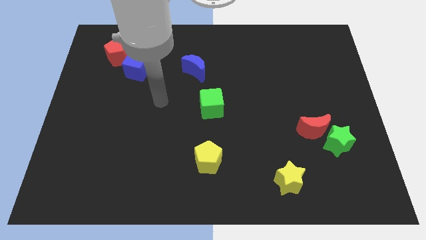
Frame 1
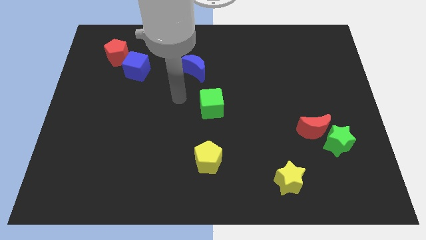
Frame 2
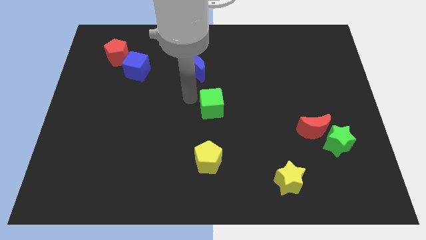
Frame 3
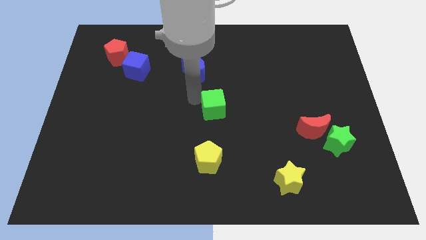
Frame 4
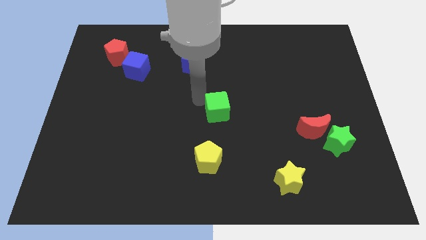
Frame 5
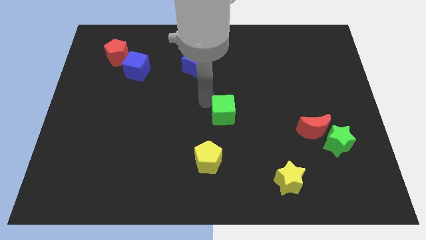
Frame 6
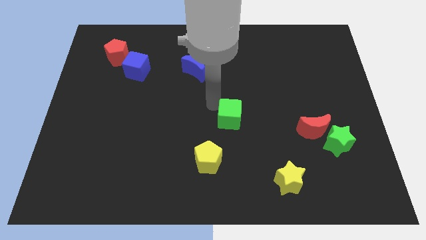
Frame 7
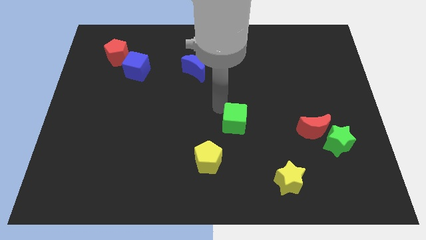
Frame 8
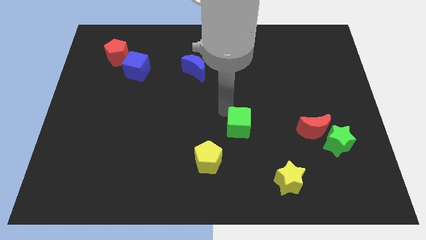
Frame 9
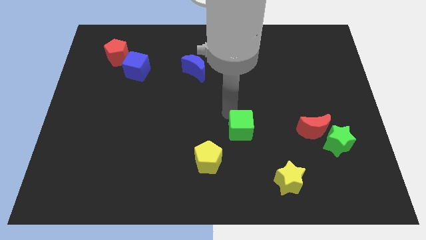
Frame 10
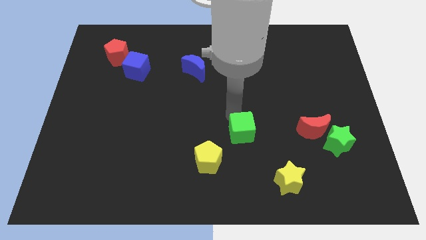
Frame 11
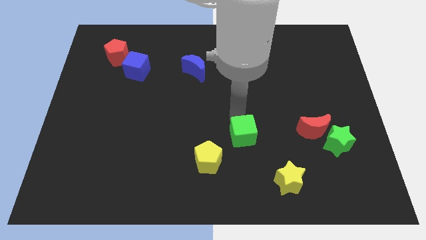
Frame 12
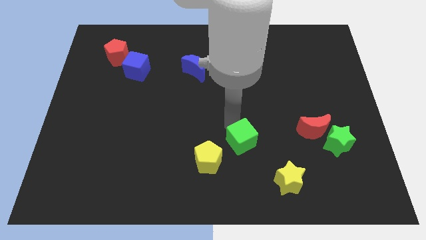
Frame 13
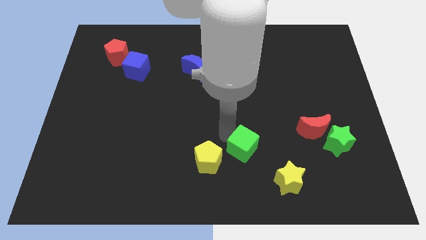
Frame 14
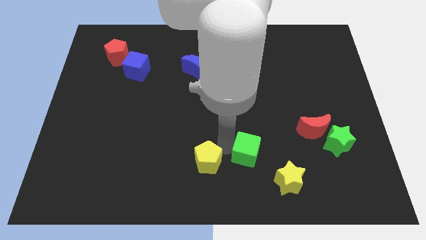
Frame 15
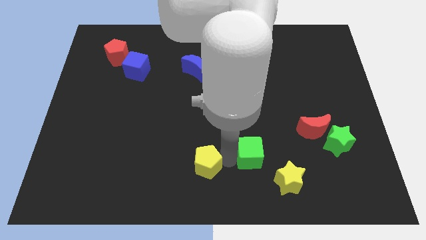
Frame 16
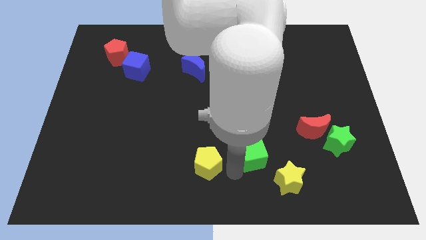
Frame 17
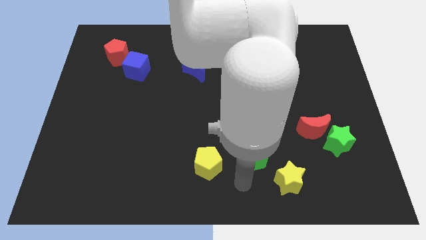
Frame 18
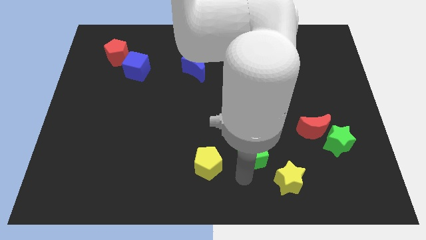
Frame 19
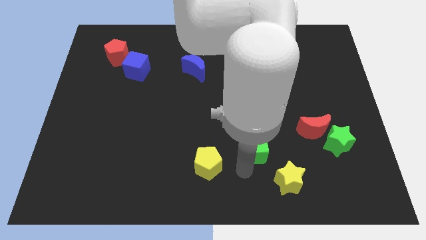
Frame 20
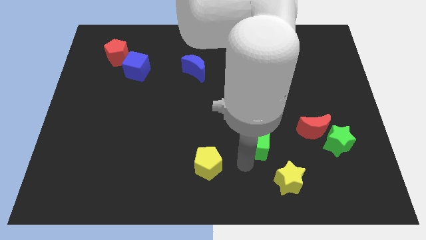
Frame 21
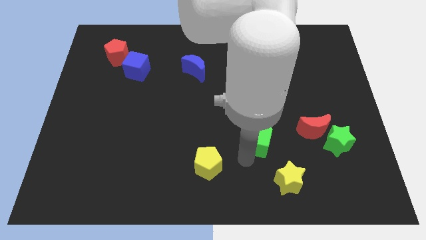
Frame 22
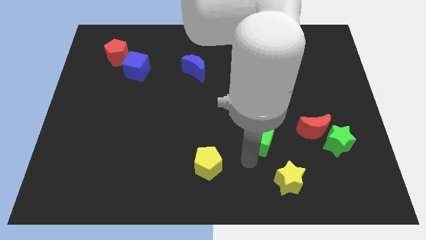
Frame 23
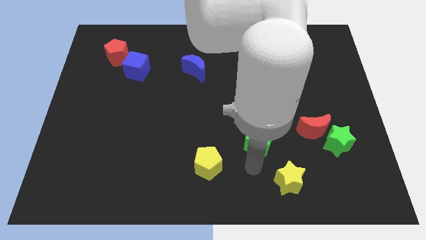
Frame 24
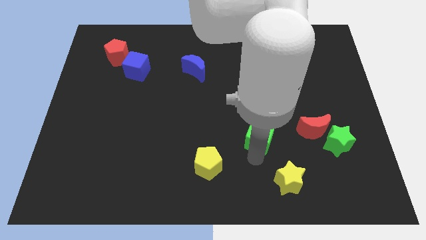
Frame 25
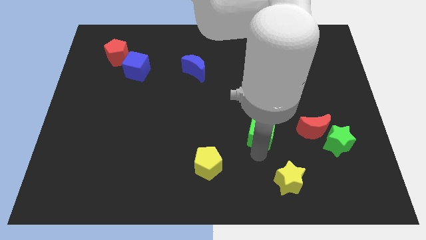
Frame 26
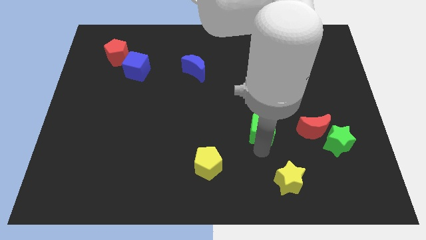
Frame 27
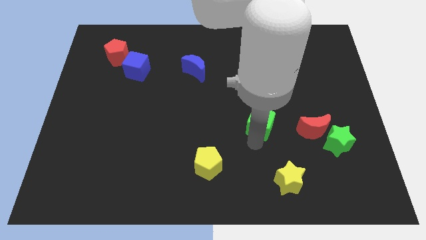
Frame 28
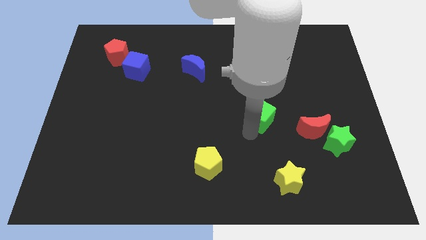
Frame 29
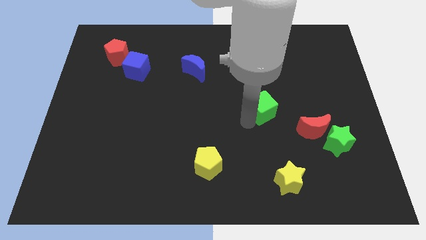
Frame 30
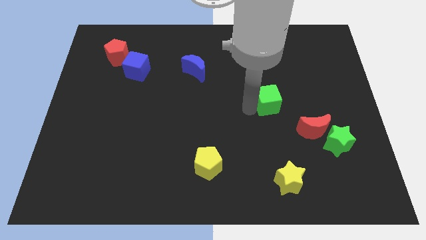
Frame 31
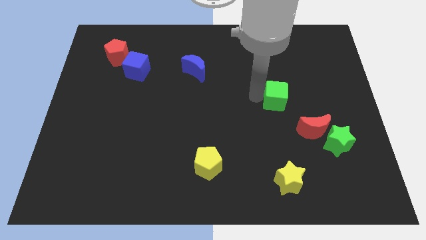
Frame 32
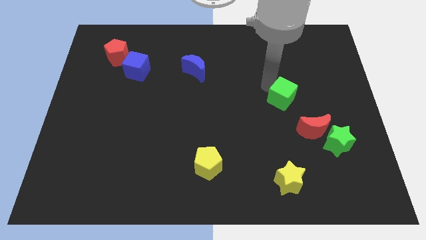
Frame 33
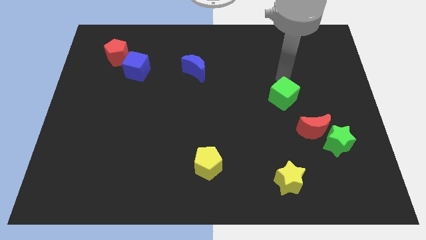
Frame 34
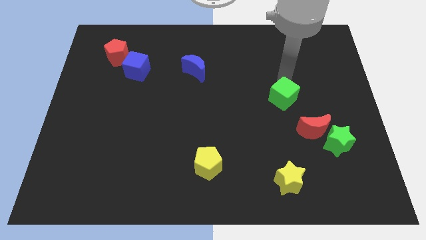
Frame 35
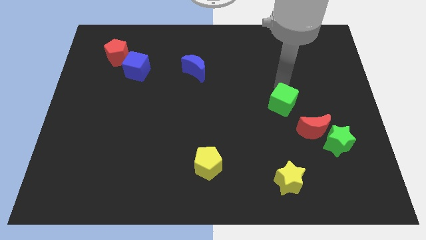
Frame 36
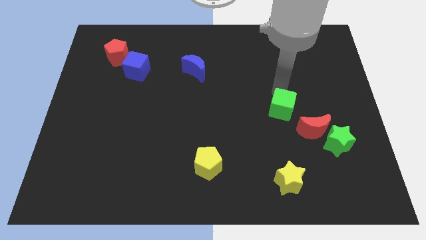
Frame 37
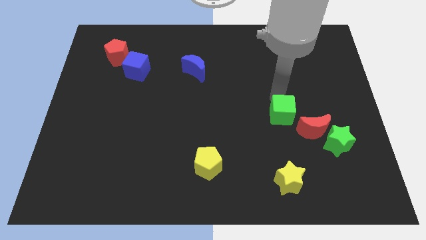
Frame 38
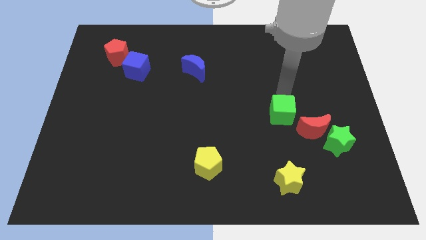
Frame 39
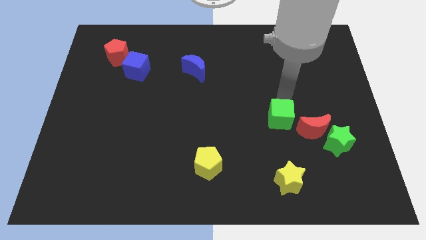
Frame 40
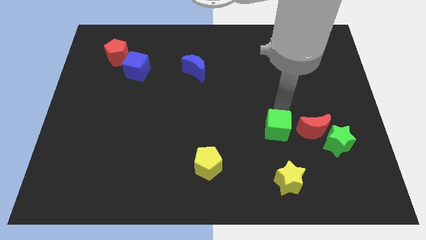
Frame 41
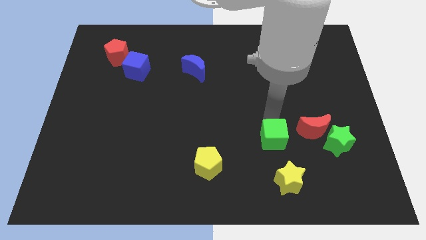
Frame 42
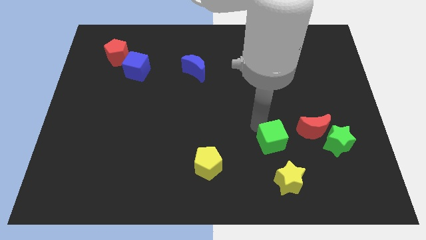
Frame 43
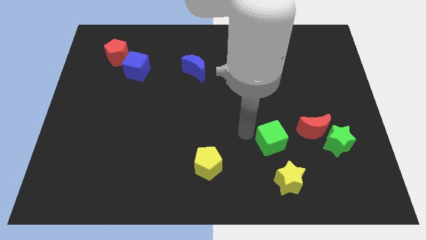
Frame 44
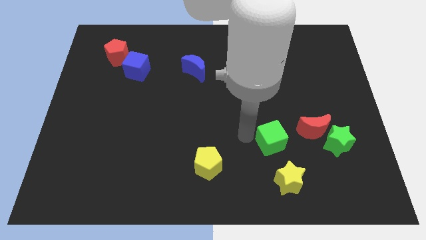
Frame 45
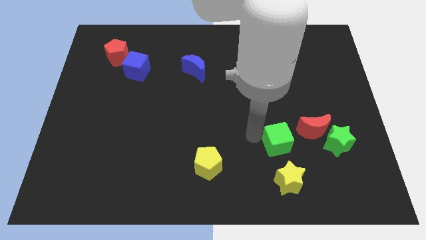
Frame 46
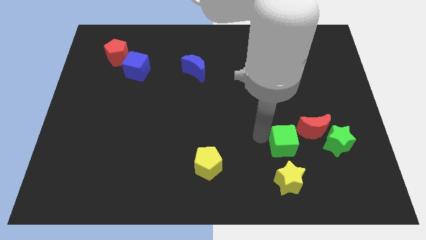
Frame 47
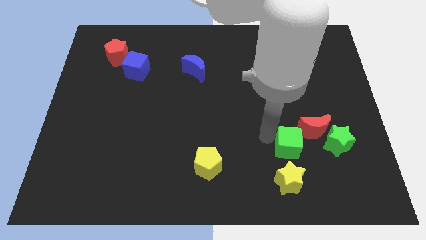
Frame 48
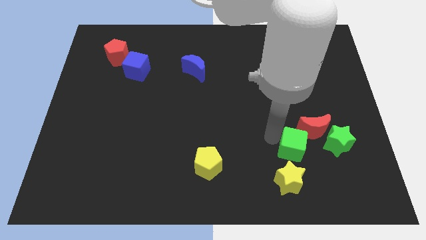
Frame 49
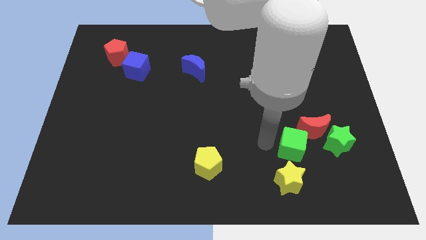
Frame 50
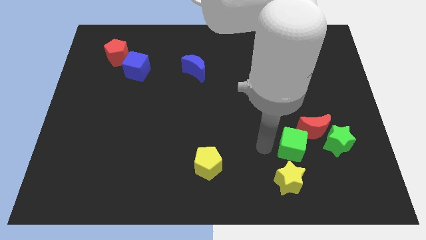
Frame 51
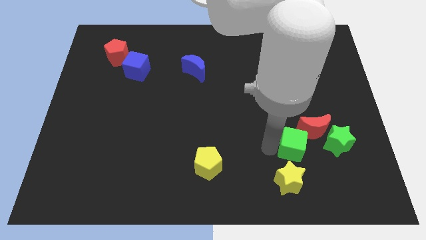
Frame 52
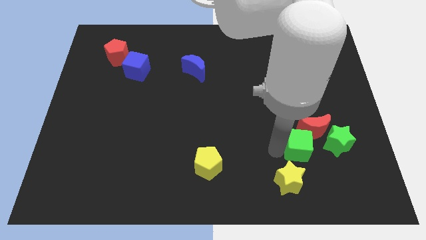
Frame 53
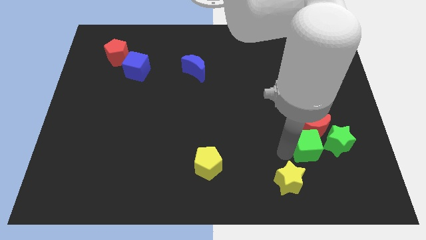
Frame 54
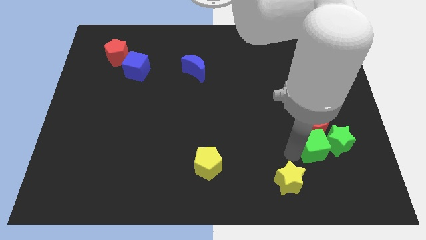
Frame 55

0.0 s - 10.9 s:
push the green cube next to the green star

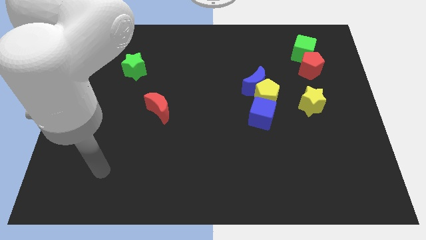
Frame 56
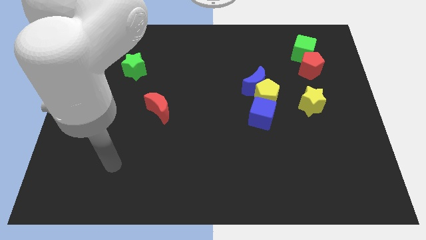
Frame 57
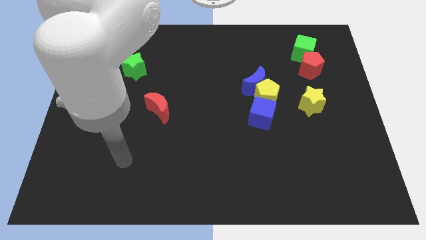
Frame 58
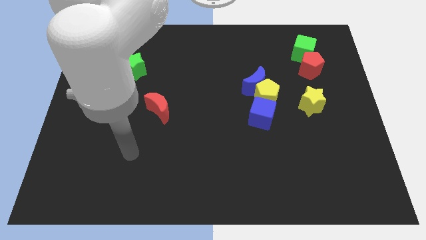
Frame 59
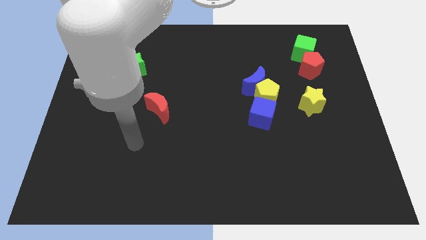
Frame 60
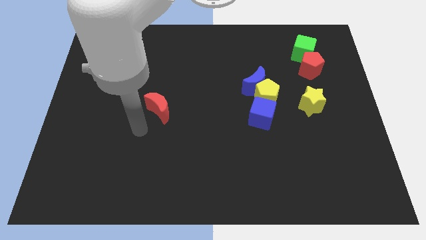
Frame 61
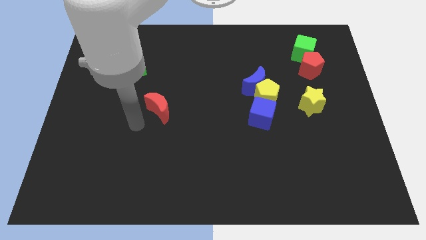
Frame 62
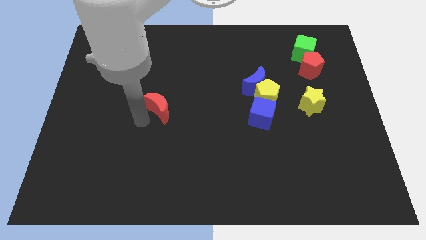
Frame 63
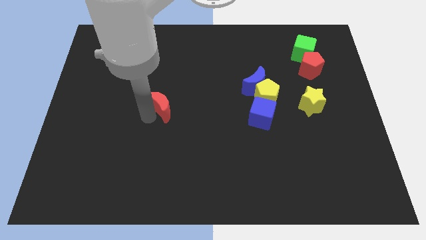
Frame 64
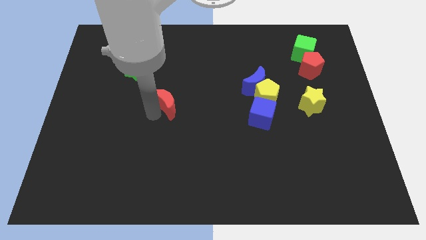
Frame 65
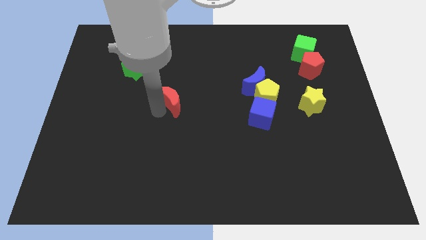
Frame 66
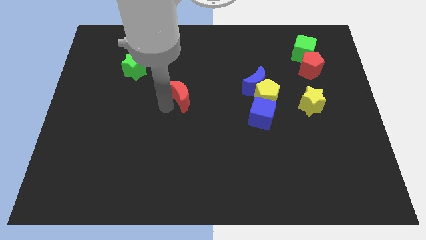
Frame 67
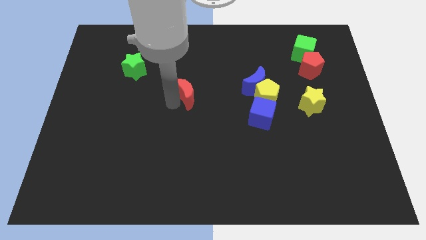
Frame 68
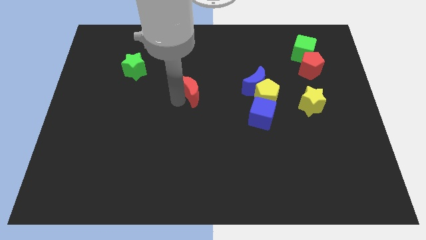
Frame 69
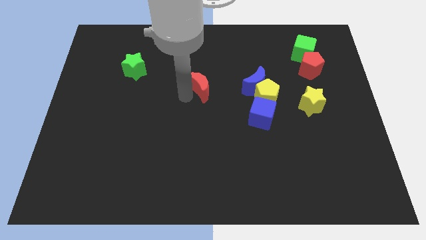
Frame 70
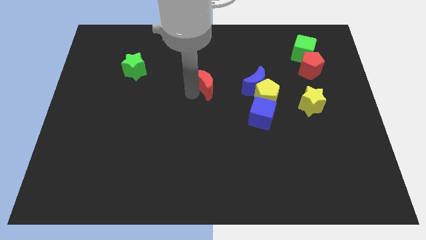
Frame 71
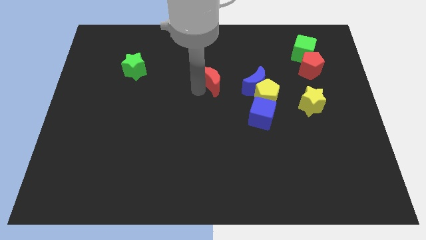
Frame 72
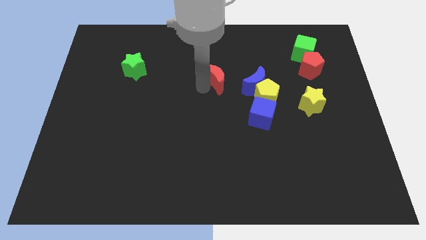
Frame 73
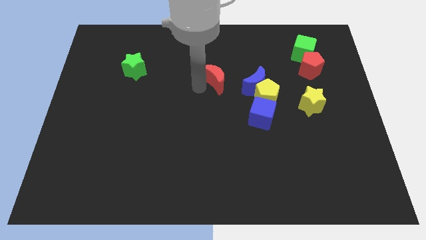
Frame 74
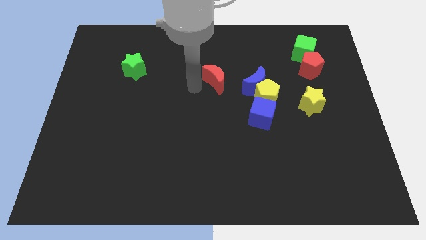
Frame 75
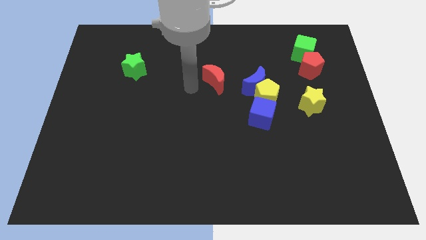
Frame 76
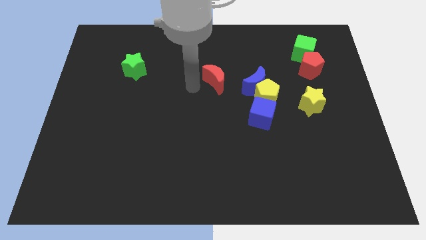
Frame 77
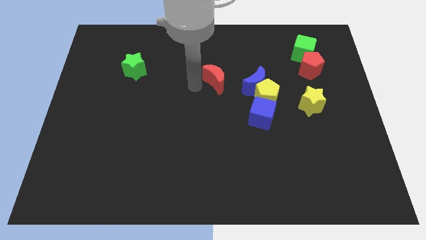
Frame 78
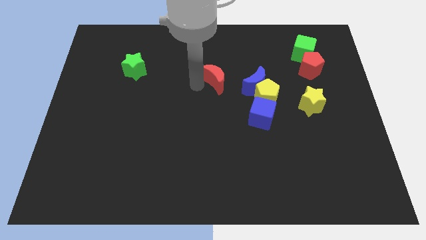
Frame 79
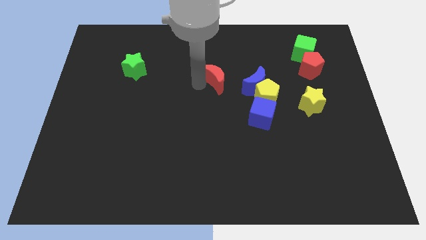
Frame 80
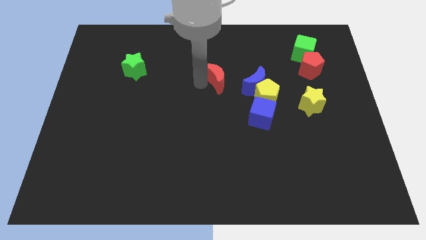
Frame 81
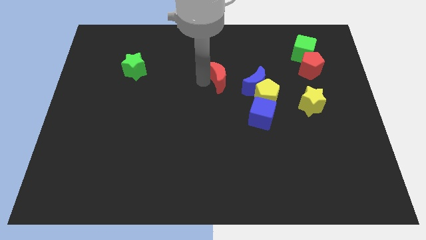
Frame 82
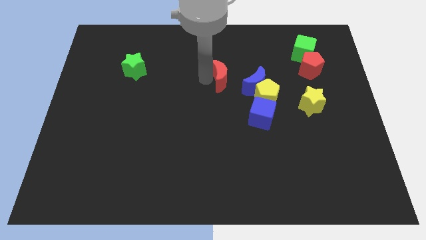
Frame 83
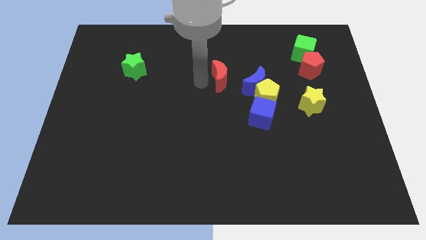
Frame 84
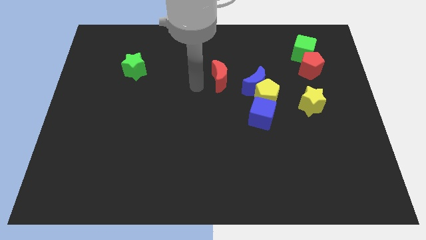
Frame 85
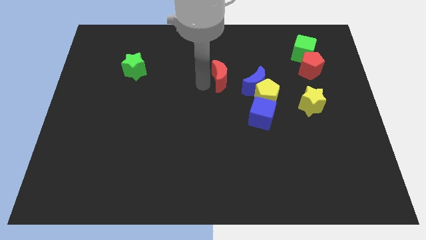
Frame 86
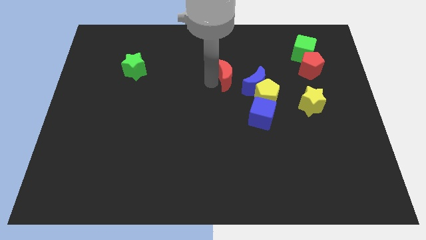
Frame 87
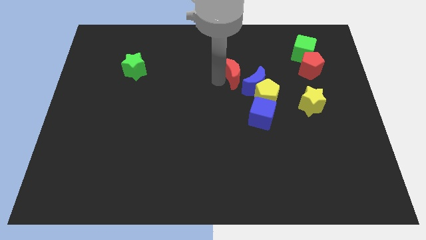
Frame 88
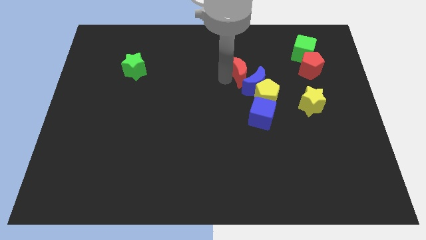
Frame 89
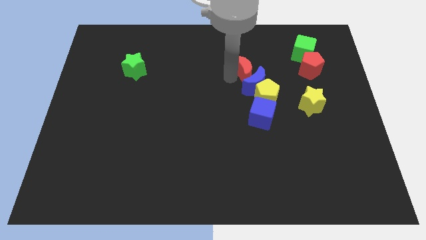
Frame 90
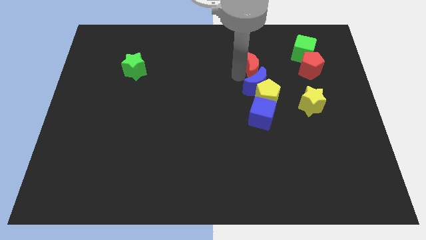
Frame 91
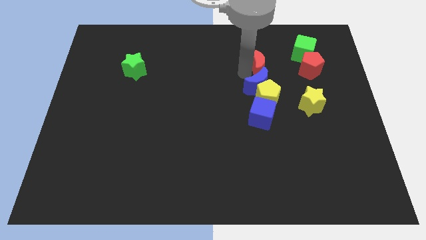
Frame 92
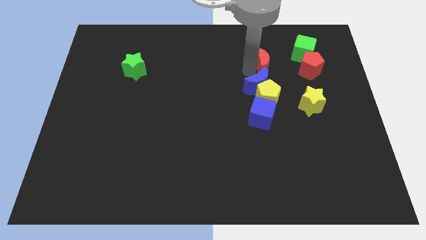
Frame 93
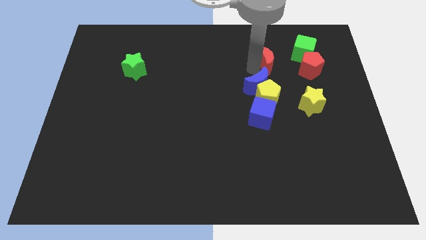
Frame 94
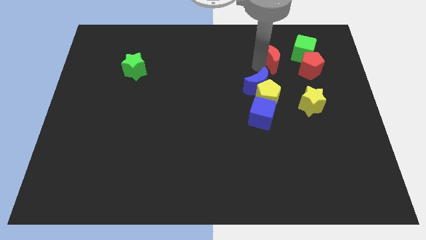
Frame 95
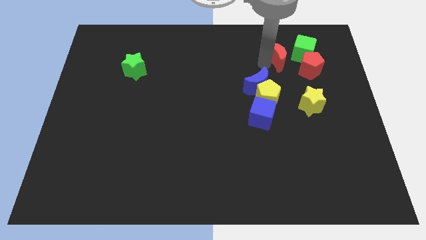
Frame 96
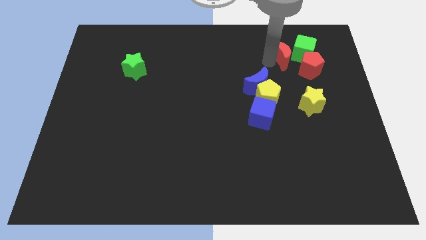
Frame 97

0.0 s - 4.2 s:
push the red moon towards the green cube
